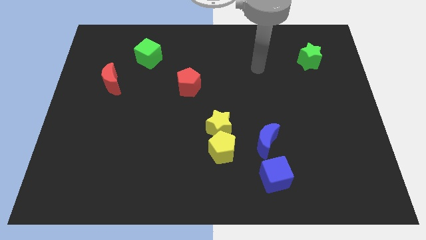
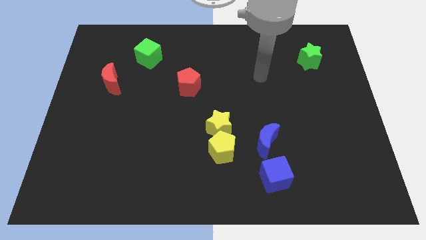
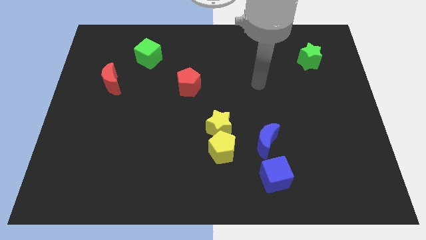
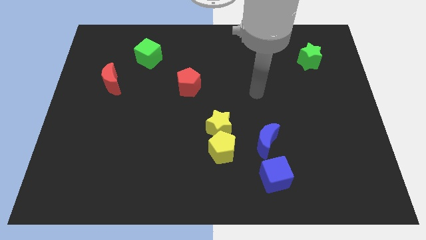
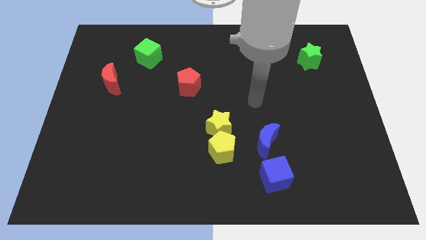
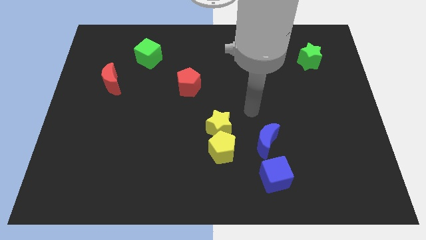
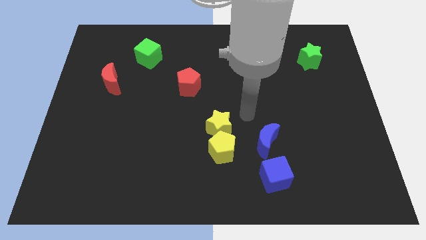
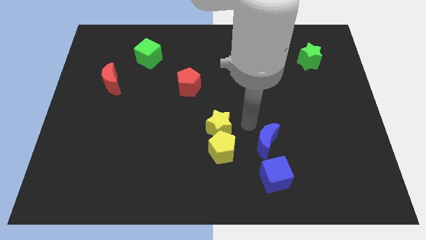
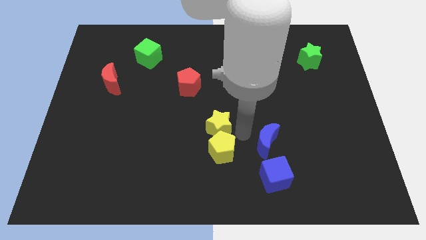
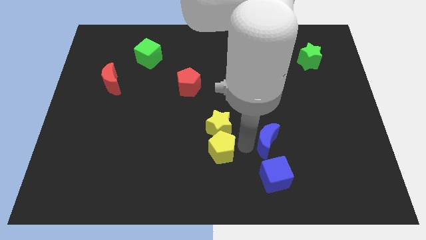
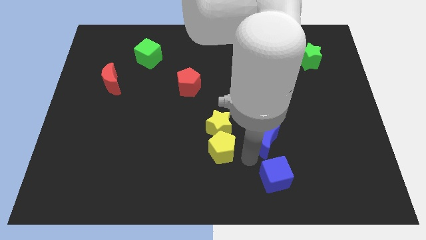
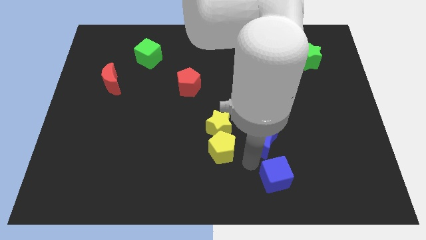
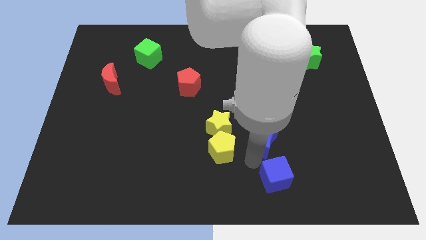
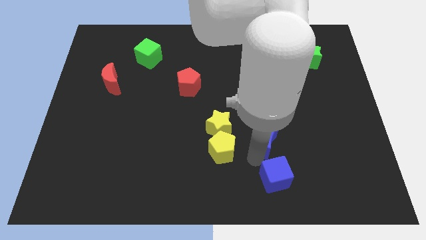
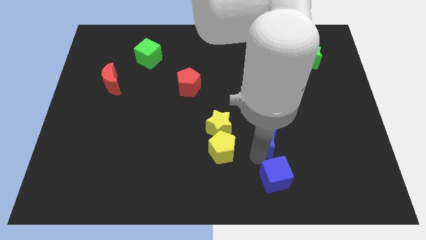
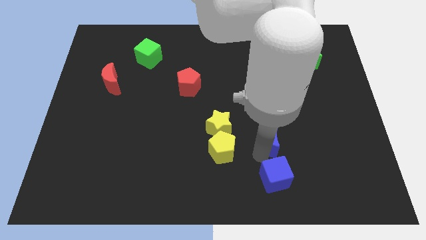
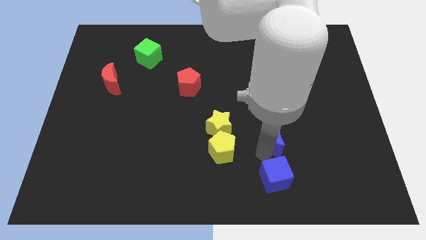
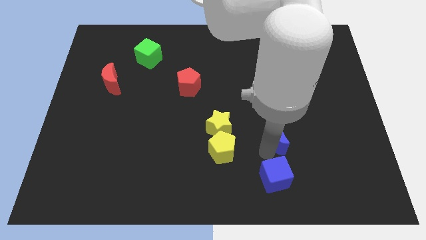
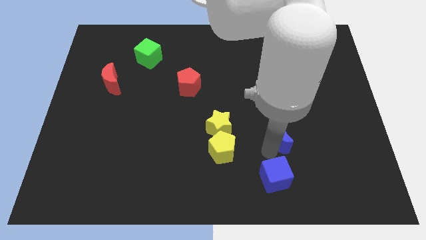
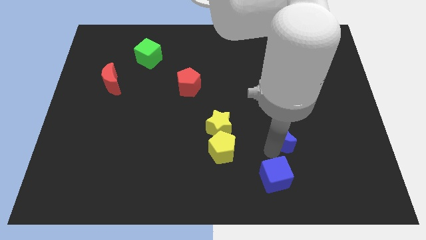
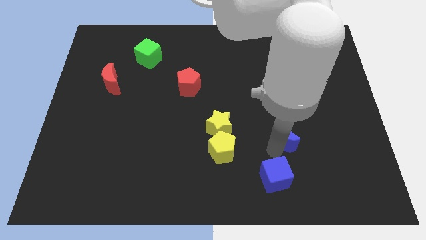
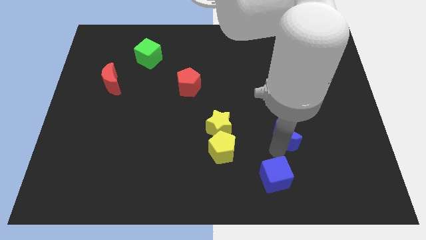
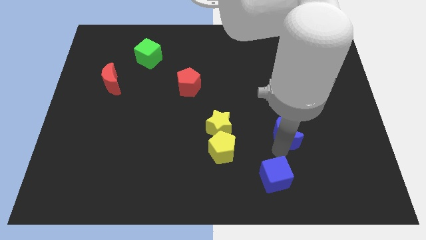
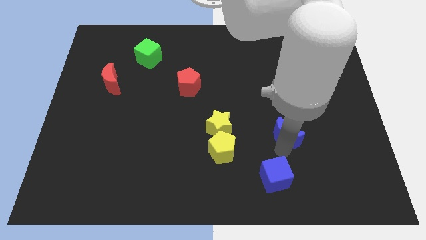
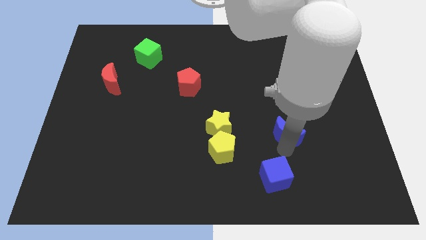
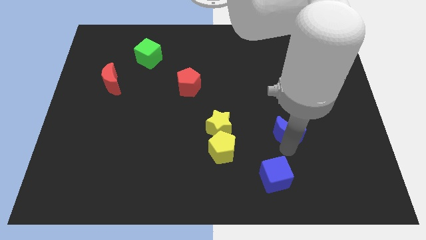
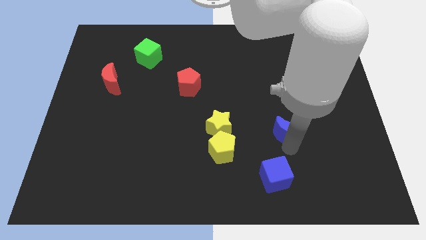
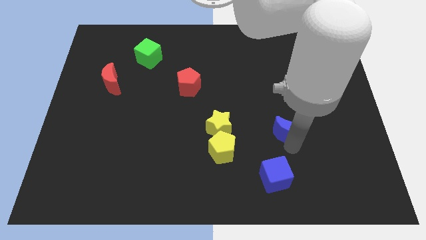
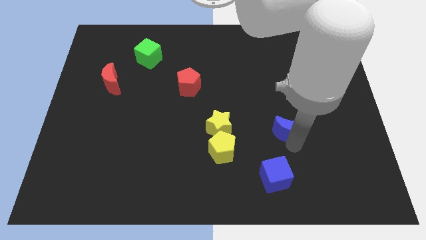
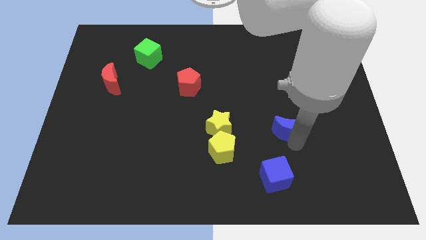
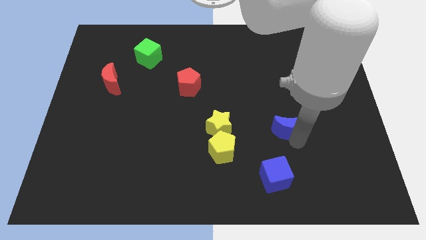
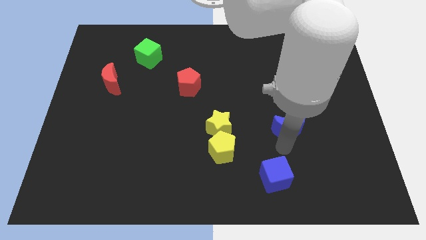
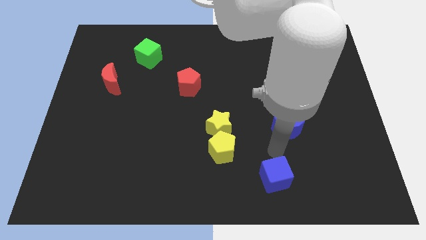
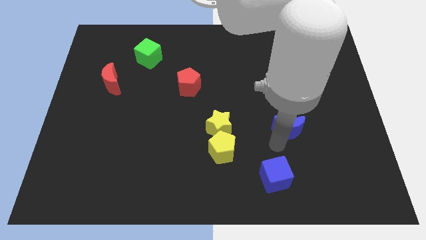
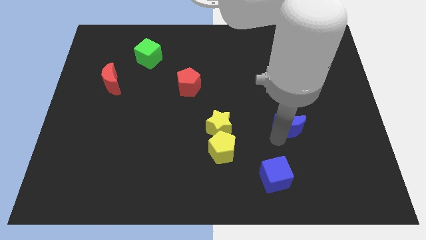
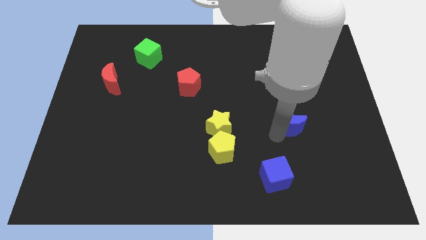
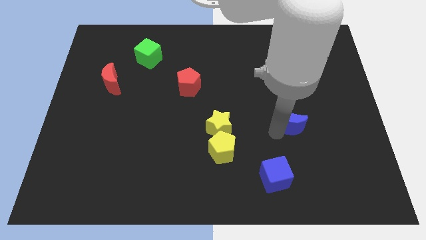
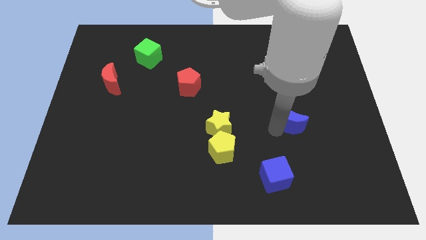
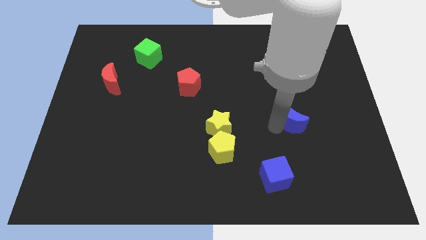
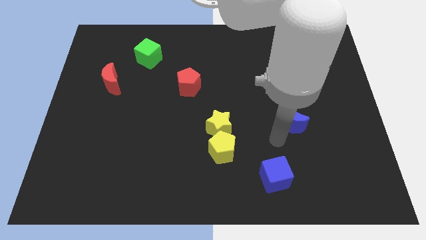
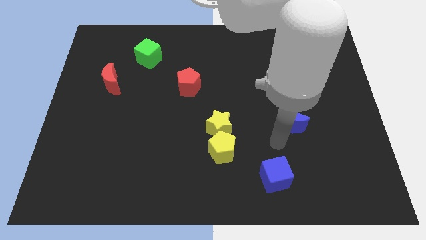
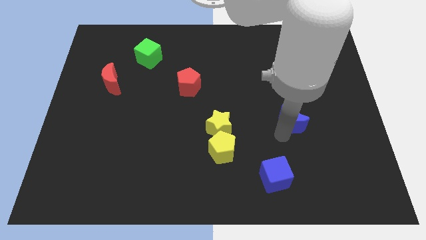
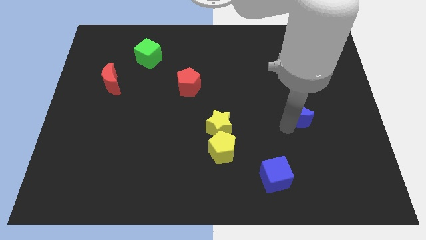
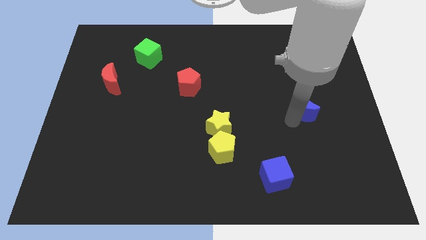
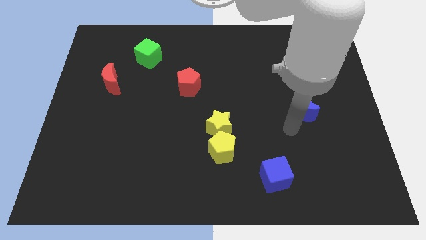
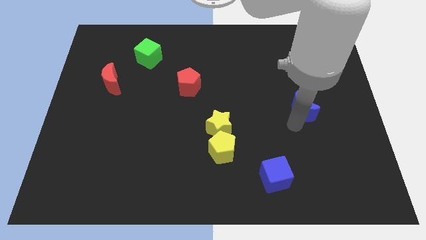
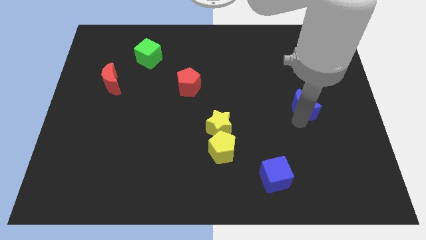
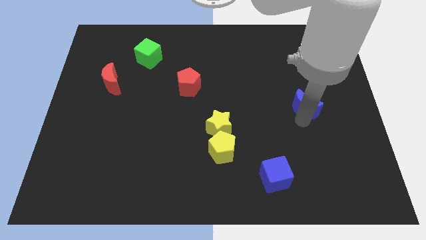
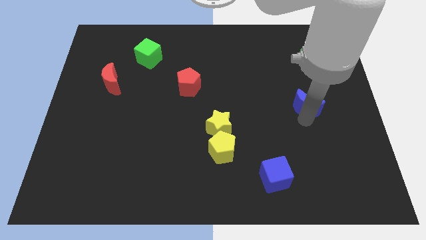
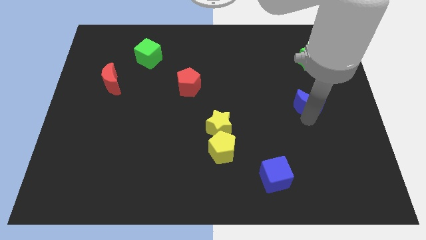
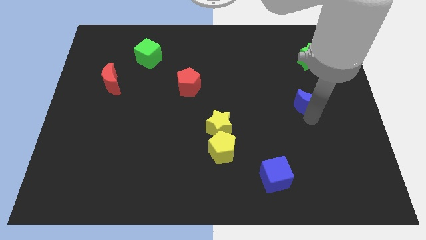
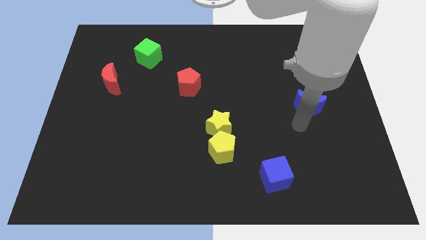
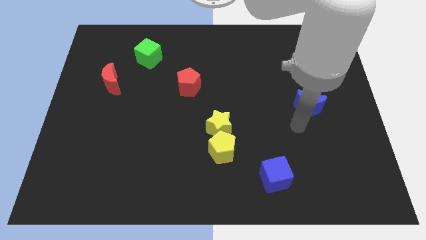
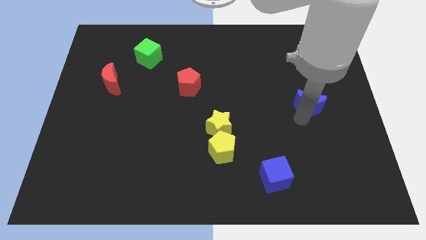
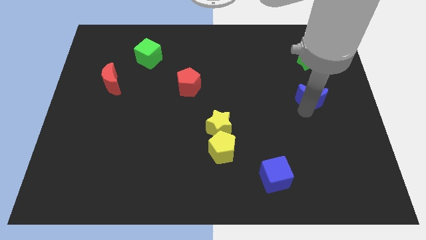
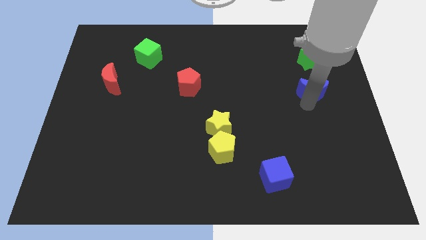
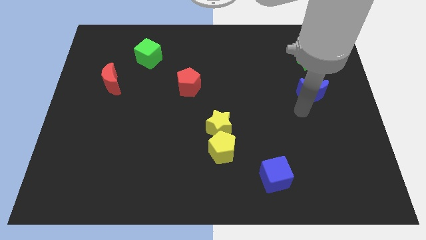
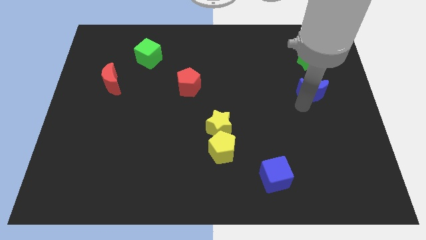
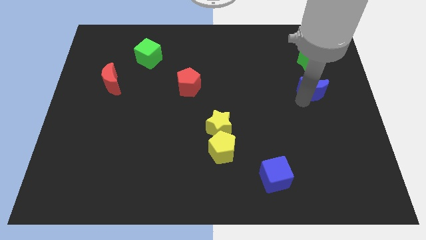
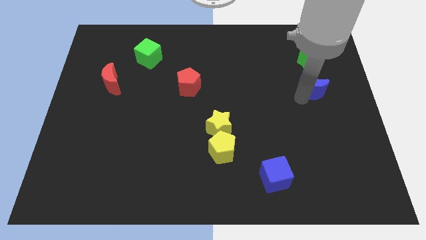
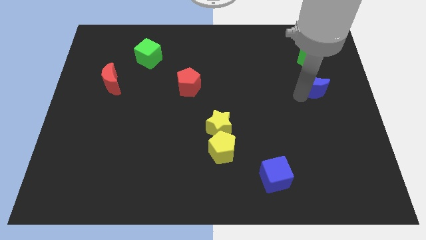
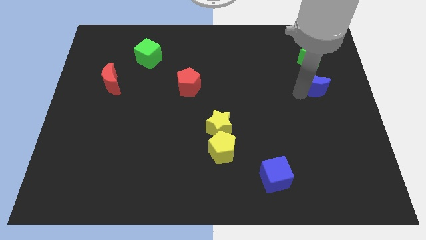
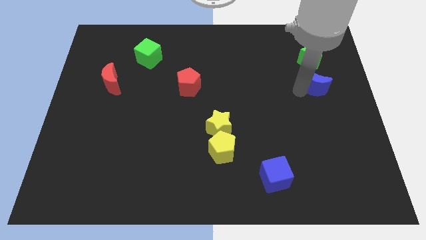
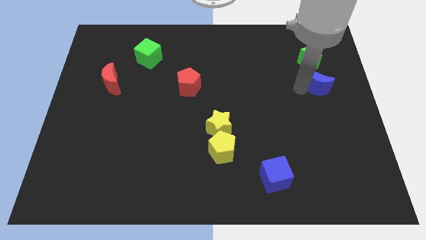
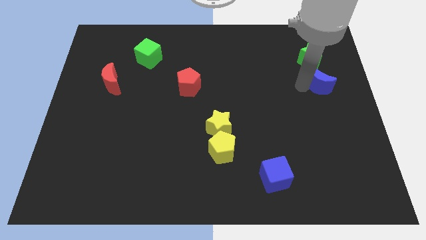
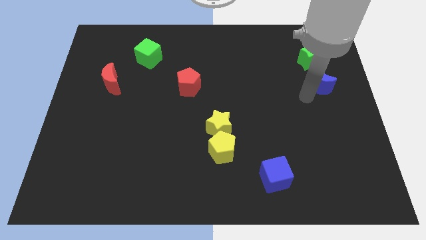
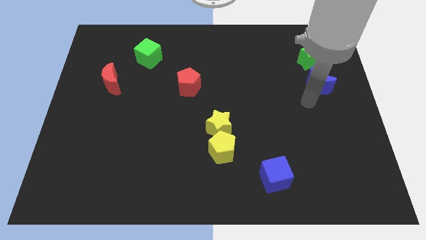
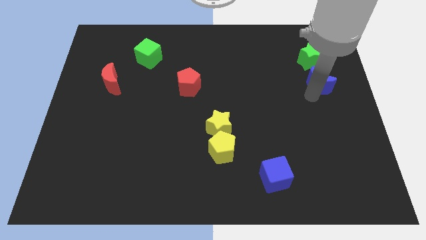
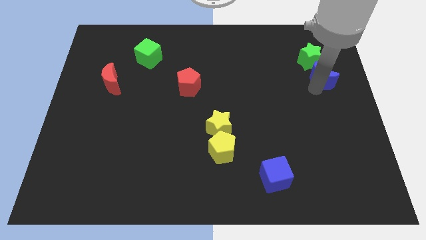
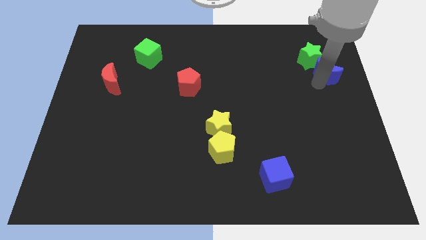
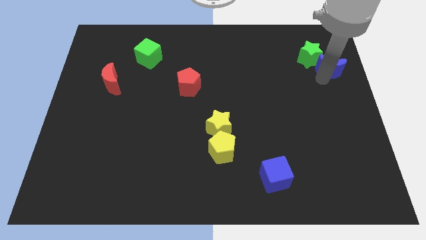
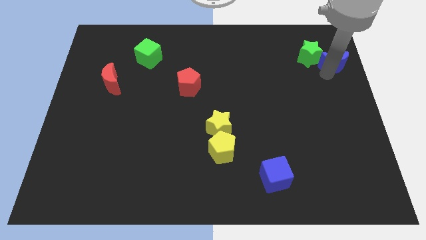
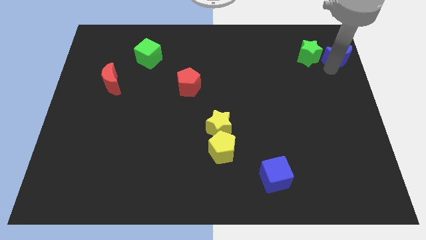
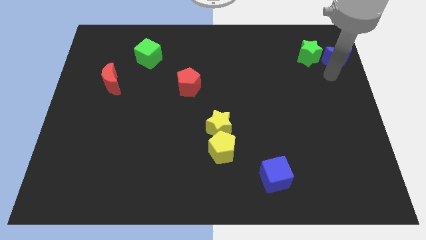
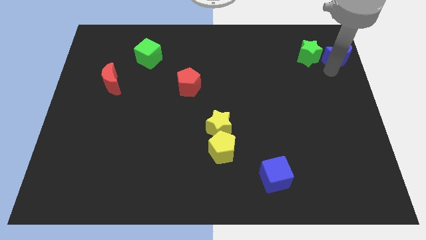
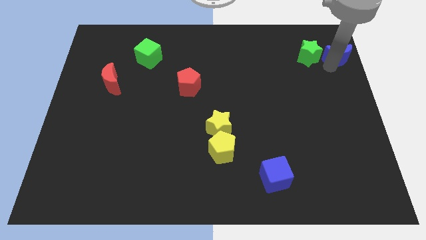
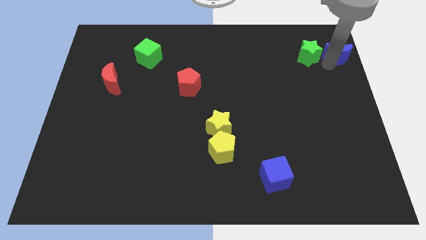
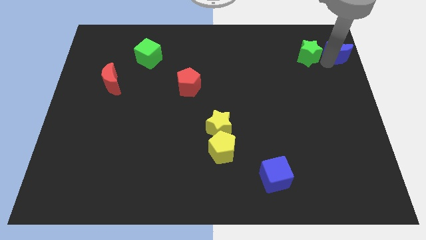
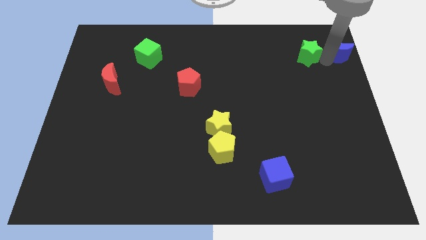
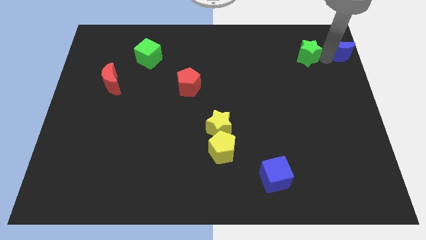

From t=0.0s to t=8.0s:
put the blue moon to the top right corner
